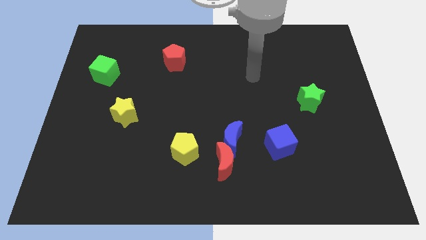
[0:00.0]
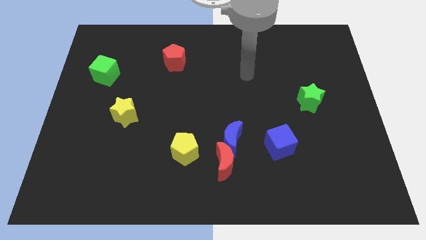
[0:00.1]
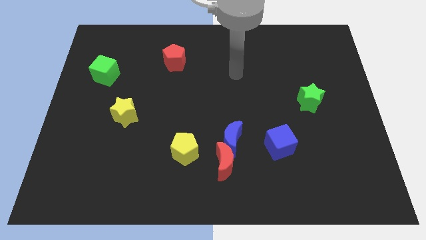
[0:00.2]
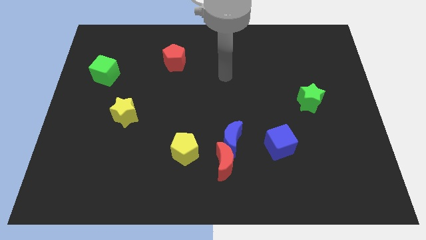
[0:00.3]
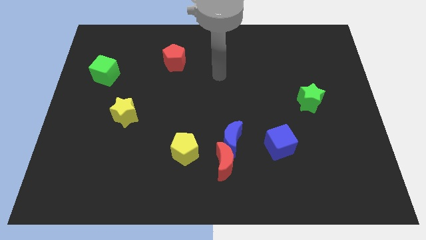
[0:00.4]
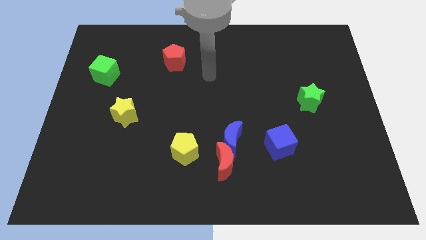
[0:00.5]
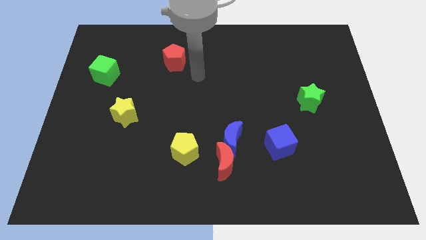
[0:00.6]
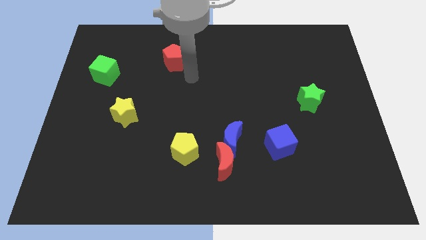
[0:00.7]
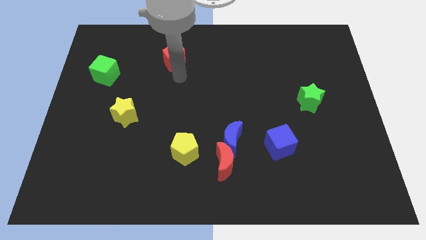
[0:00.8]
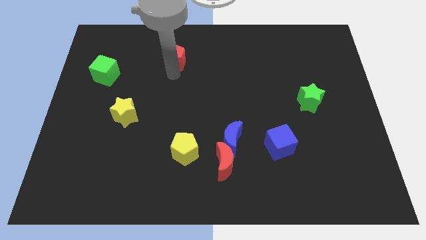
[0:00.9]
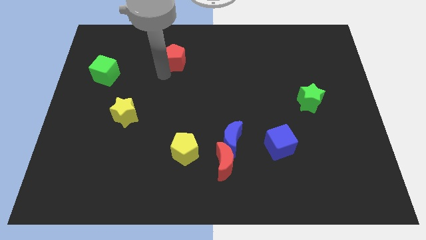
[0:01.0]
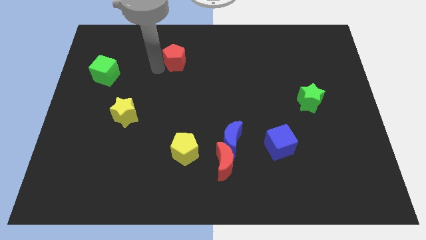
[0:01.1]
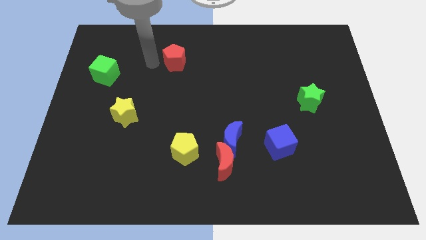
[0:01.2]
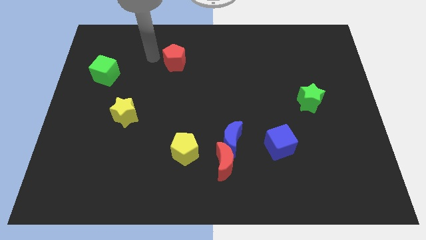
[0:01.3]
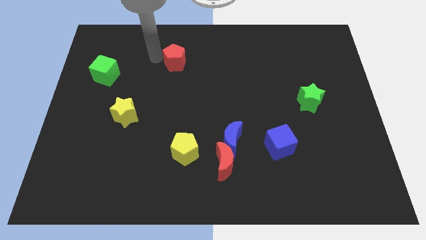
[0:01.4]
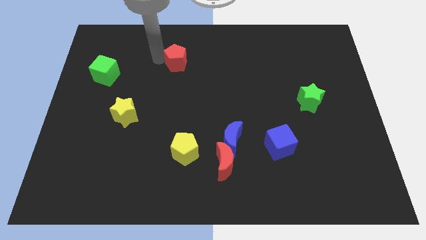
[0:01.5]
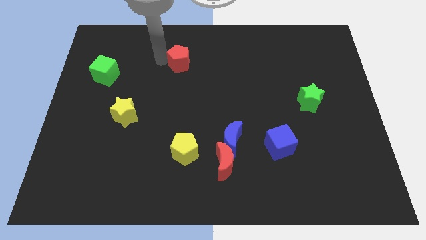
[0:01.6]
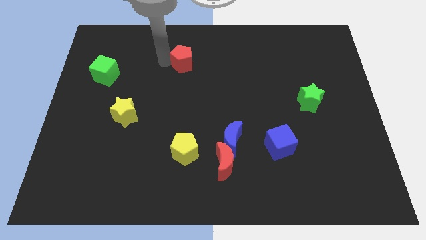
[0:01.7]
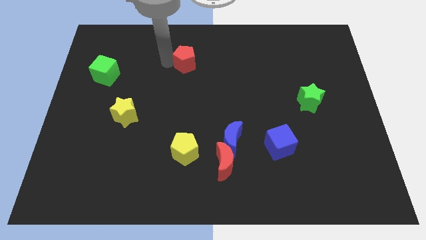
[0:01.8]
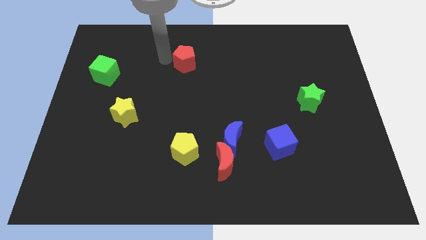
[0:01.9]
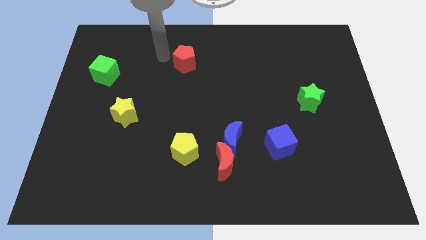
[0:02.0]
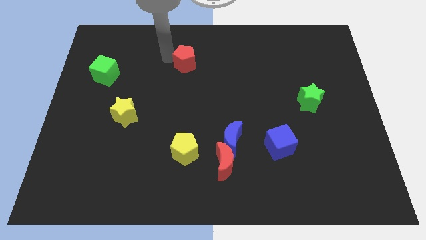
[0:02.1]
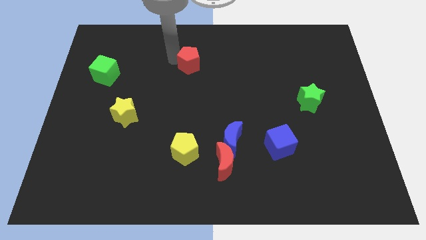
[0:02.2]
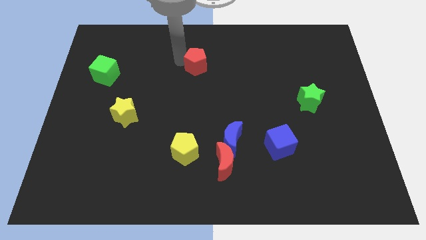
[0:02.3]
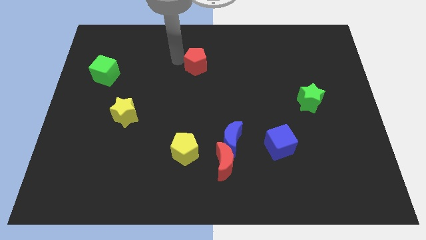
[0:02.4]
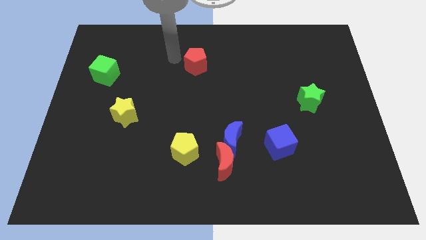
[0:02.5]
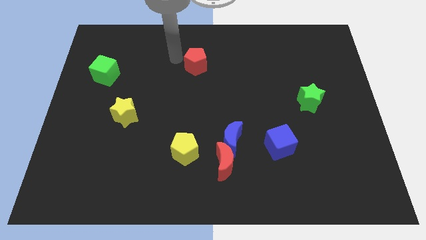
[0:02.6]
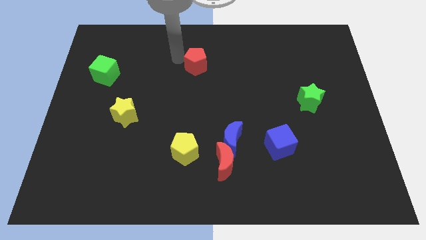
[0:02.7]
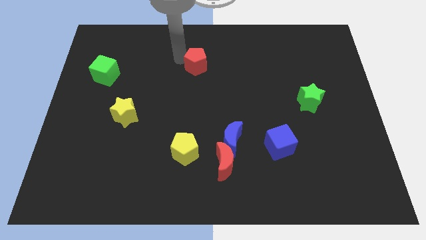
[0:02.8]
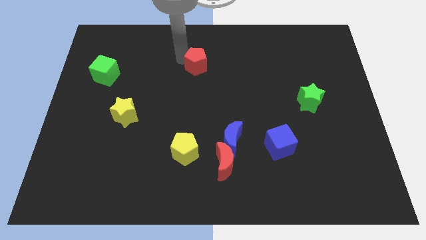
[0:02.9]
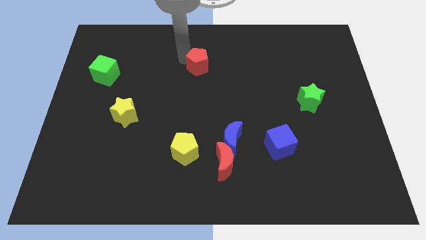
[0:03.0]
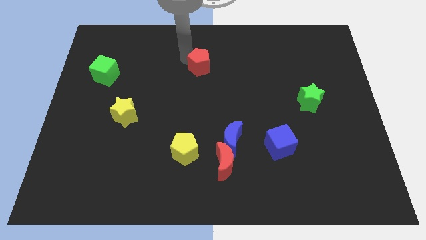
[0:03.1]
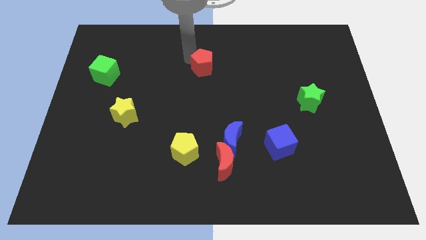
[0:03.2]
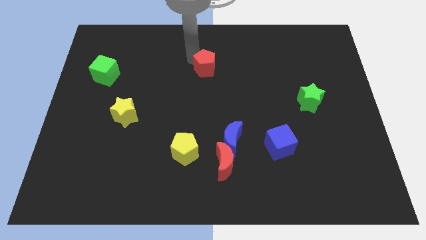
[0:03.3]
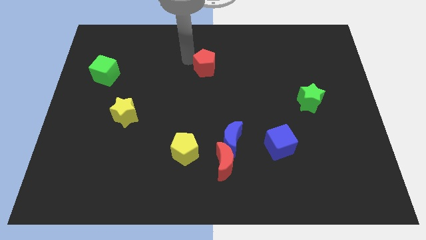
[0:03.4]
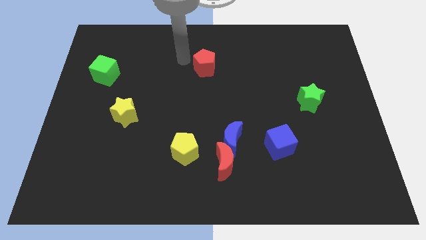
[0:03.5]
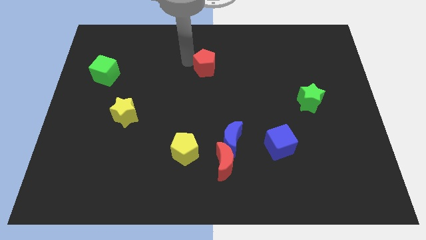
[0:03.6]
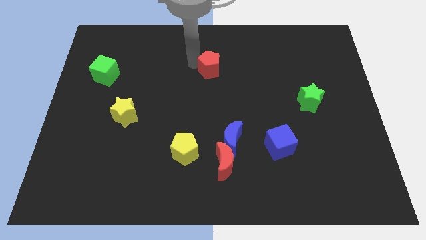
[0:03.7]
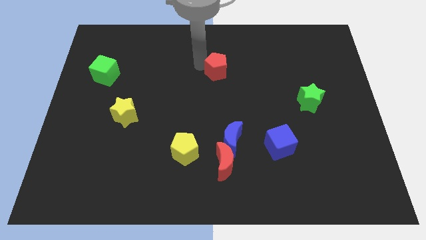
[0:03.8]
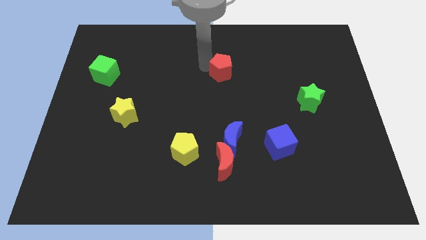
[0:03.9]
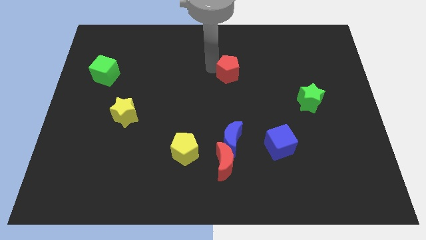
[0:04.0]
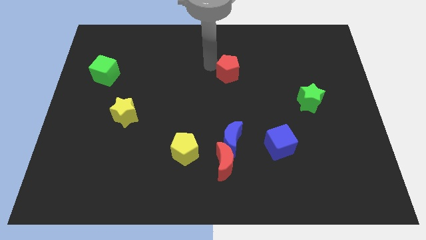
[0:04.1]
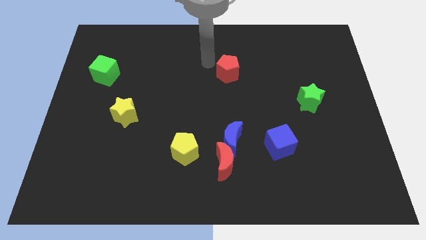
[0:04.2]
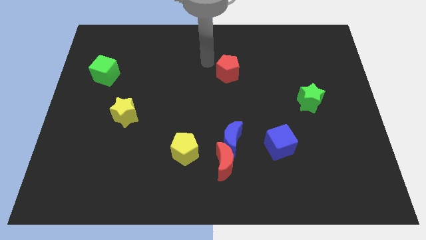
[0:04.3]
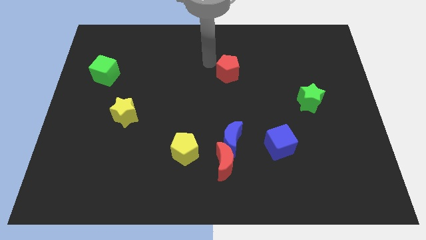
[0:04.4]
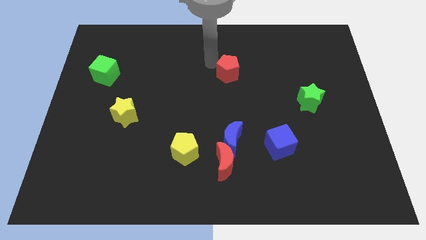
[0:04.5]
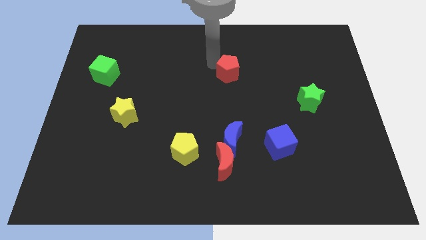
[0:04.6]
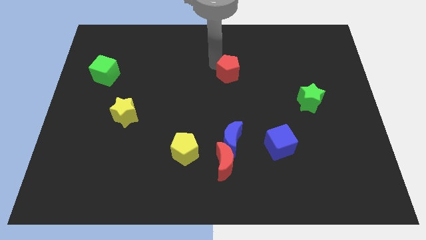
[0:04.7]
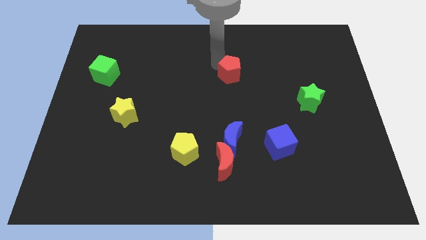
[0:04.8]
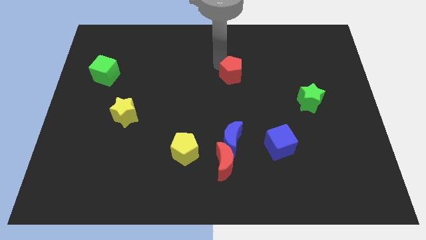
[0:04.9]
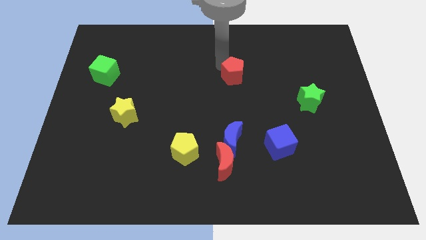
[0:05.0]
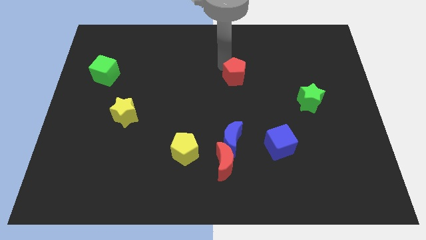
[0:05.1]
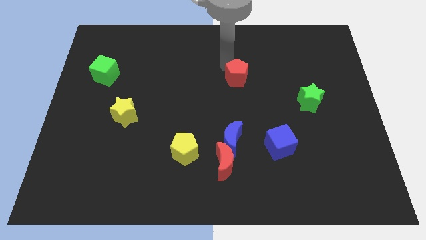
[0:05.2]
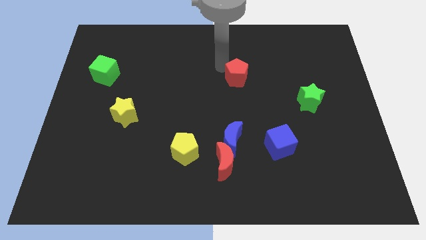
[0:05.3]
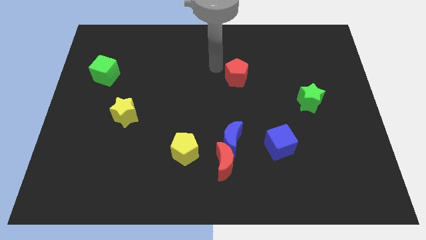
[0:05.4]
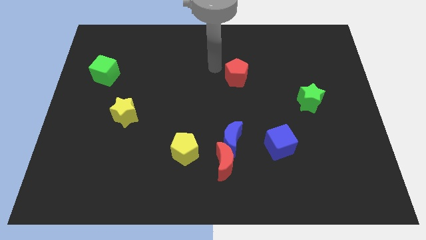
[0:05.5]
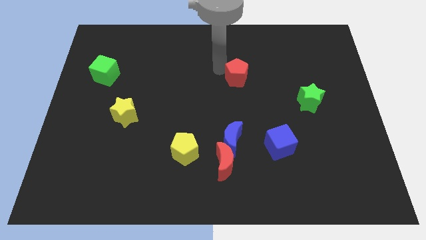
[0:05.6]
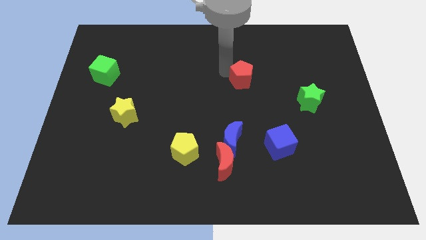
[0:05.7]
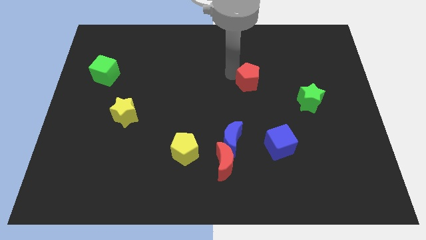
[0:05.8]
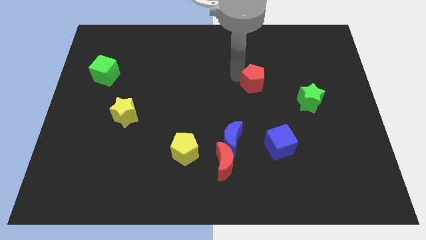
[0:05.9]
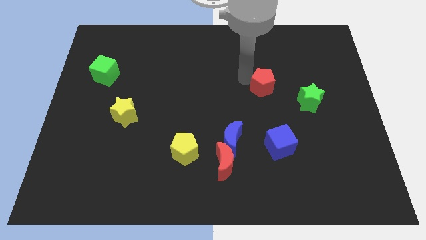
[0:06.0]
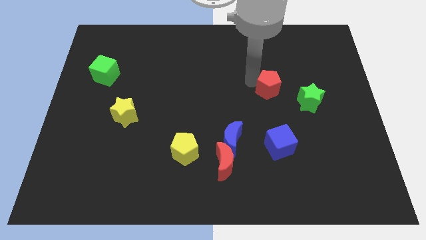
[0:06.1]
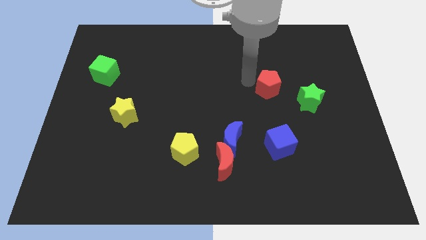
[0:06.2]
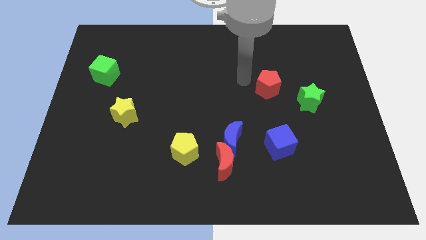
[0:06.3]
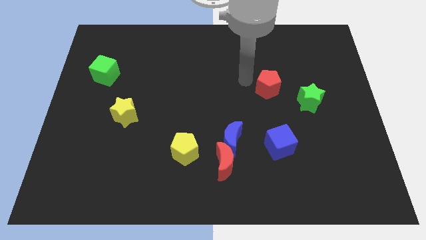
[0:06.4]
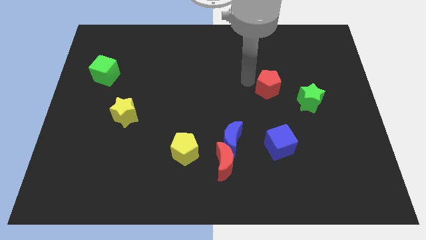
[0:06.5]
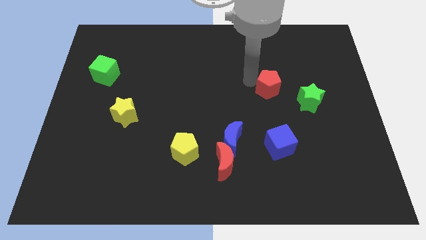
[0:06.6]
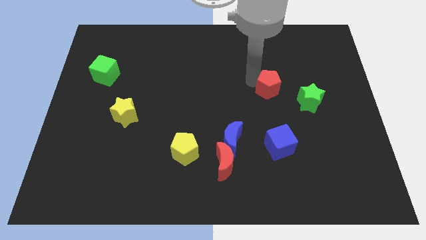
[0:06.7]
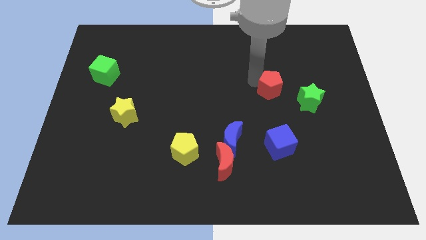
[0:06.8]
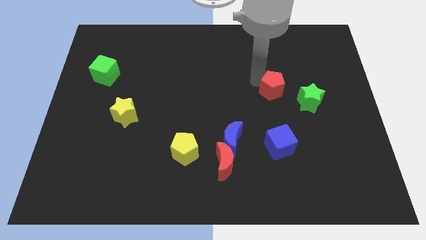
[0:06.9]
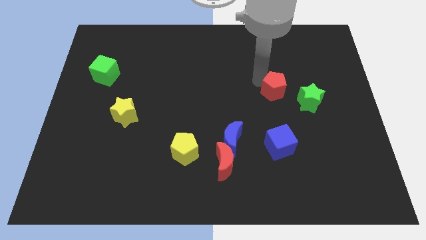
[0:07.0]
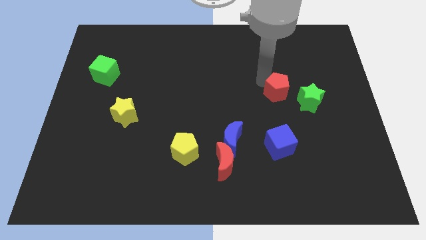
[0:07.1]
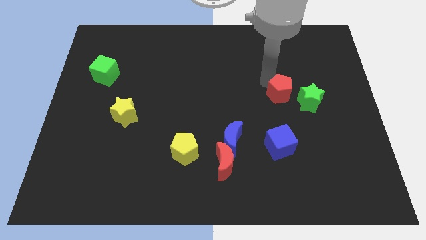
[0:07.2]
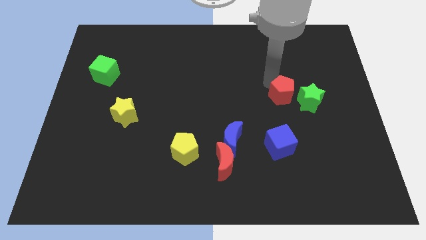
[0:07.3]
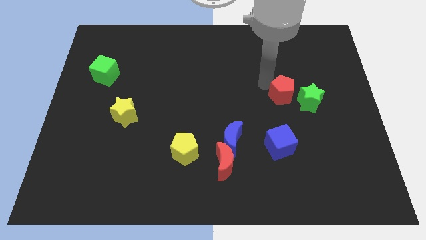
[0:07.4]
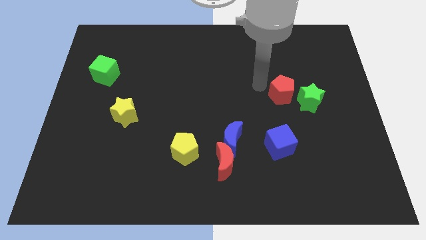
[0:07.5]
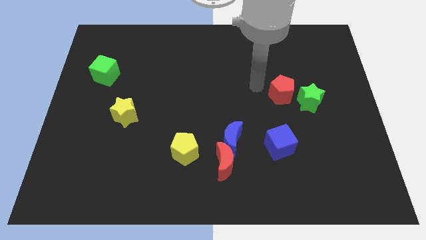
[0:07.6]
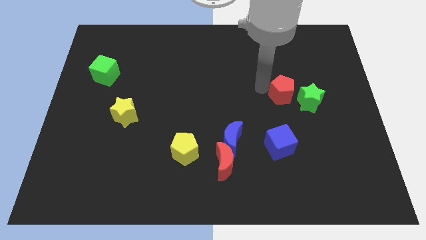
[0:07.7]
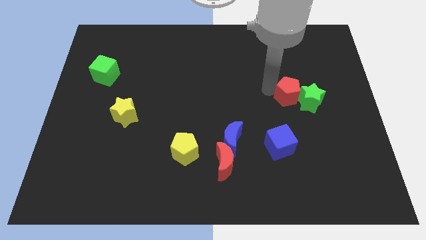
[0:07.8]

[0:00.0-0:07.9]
put the red pentagon towards the green star

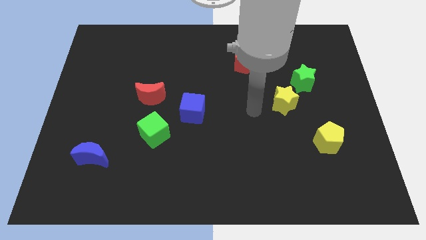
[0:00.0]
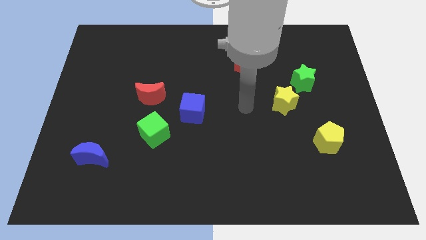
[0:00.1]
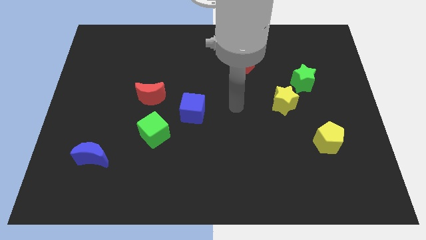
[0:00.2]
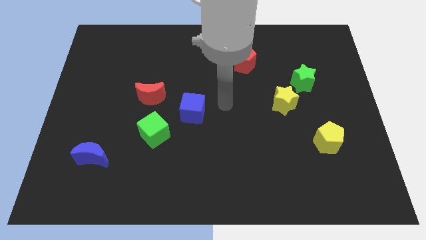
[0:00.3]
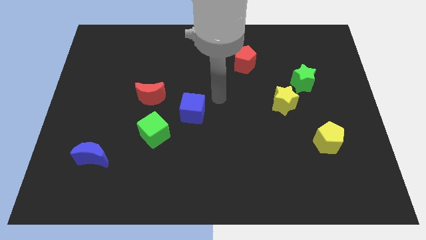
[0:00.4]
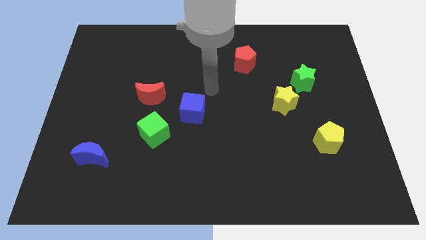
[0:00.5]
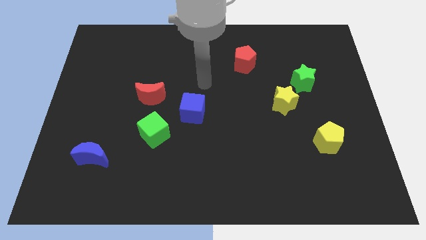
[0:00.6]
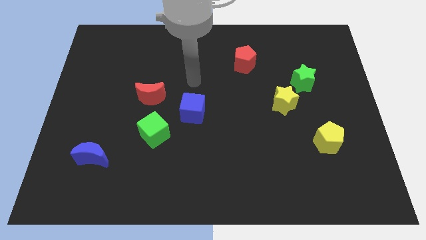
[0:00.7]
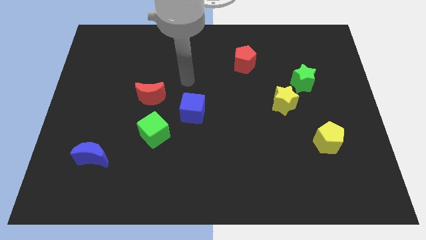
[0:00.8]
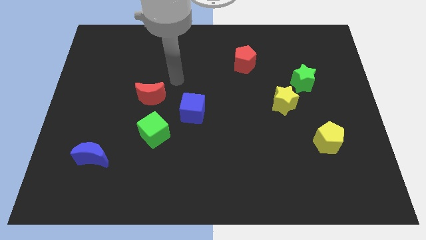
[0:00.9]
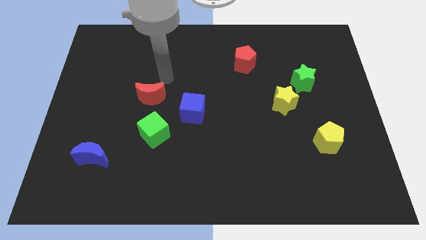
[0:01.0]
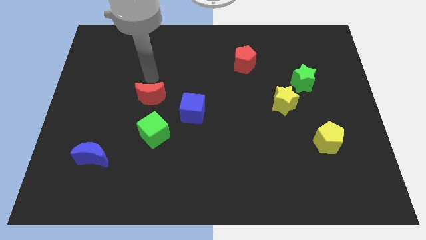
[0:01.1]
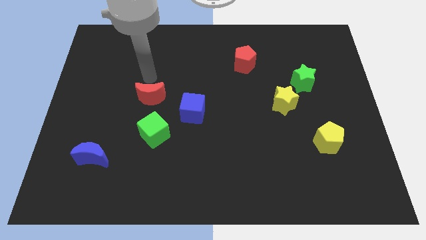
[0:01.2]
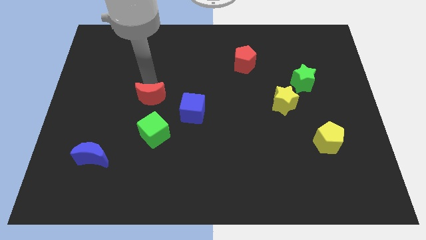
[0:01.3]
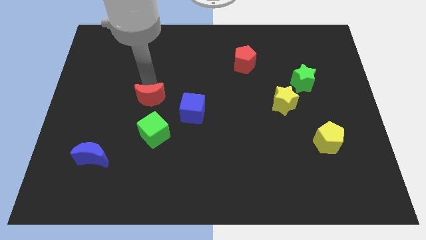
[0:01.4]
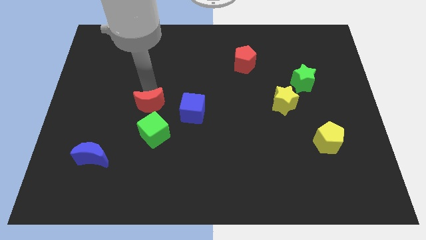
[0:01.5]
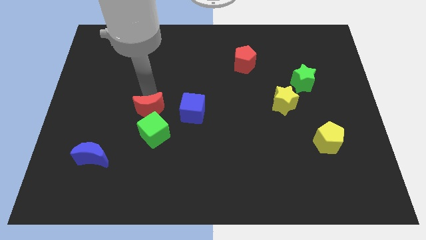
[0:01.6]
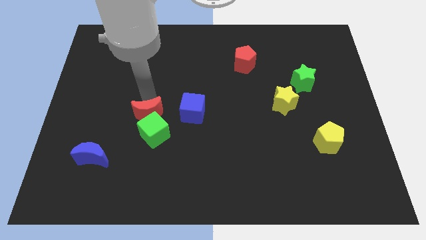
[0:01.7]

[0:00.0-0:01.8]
move the red moon close to the green cube
